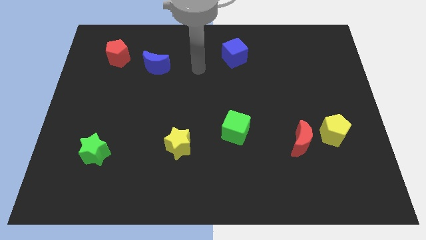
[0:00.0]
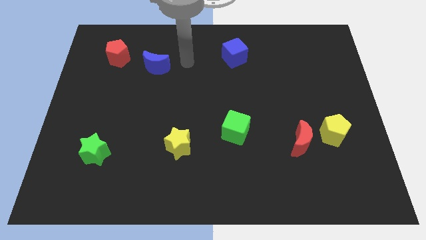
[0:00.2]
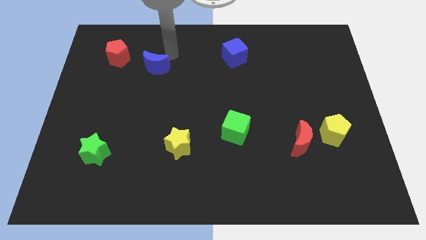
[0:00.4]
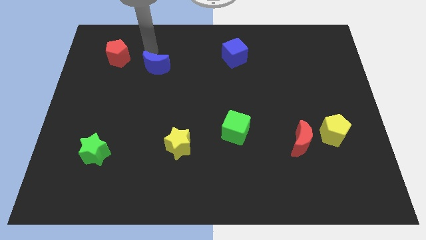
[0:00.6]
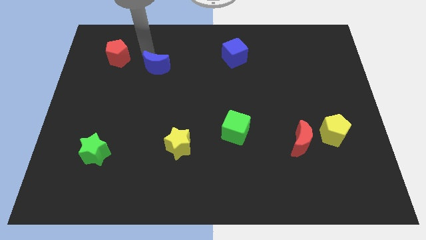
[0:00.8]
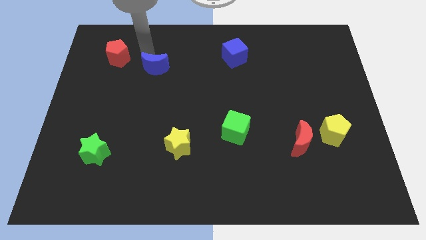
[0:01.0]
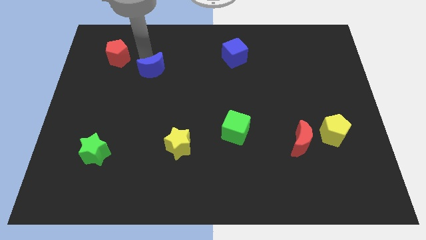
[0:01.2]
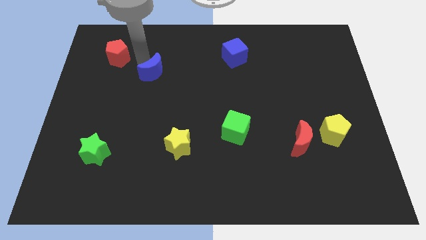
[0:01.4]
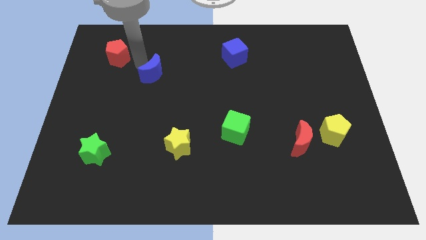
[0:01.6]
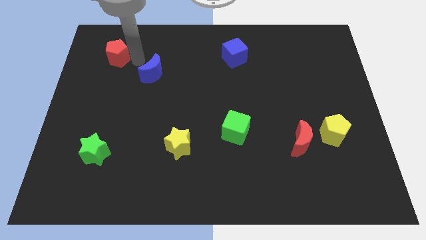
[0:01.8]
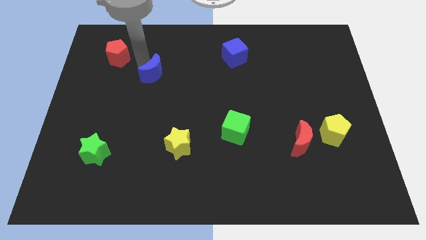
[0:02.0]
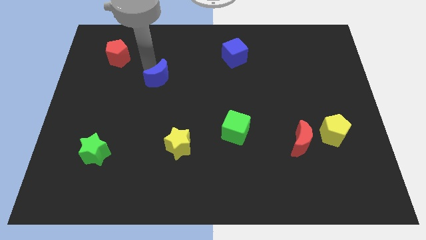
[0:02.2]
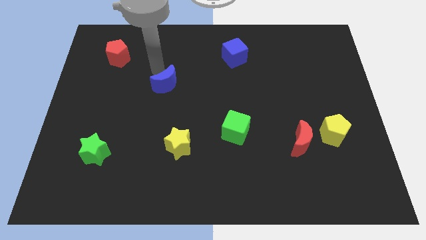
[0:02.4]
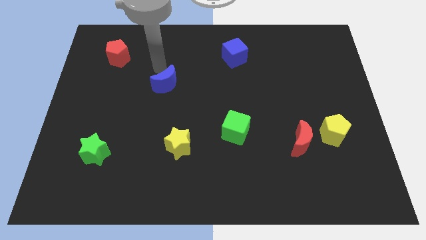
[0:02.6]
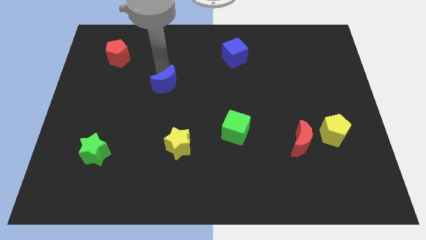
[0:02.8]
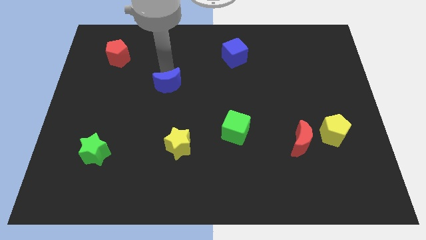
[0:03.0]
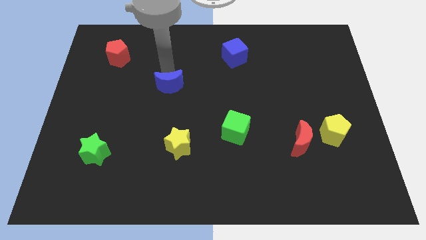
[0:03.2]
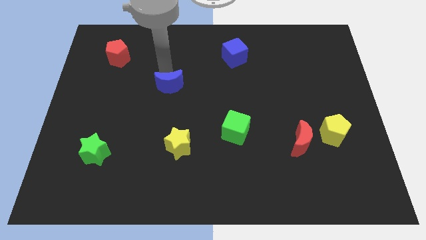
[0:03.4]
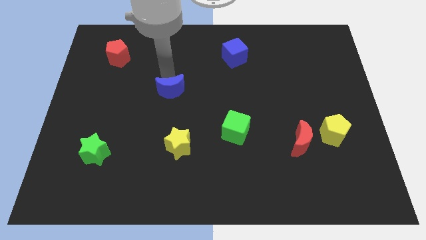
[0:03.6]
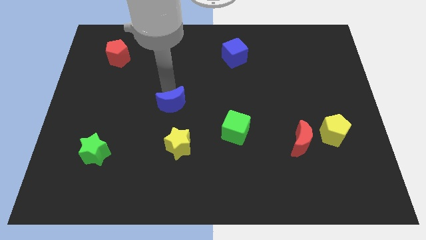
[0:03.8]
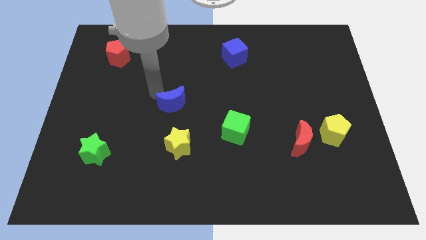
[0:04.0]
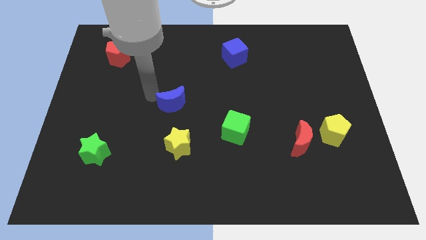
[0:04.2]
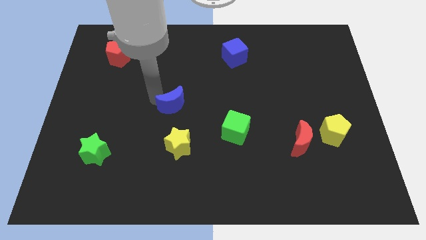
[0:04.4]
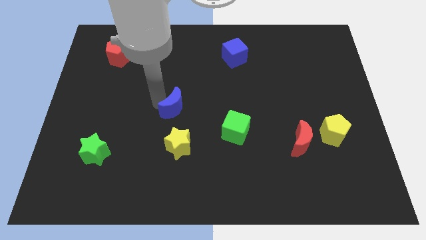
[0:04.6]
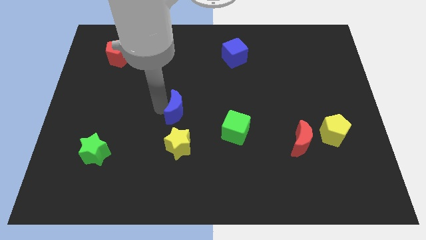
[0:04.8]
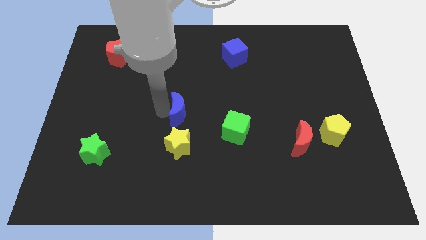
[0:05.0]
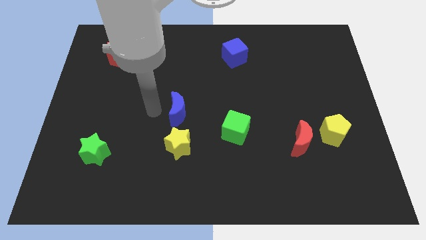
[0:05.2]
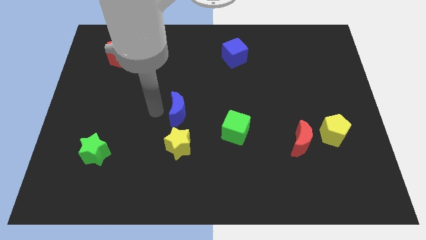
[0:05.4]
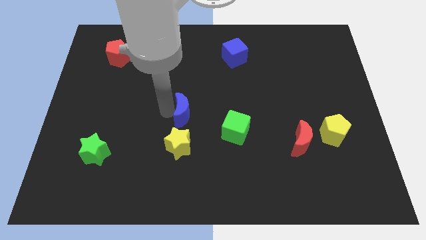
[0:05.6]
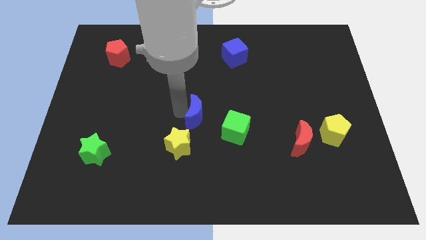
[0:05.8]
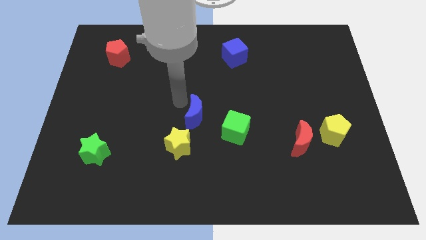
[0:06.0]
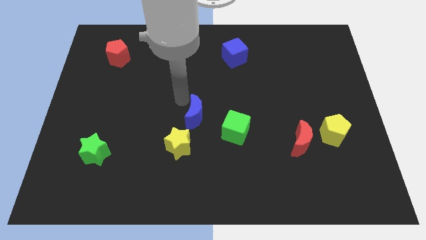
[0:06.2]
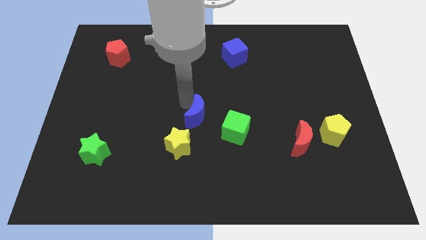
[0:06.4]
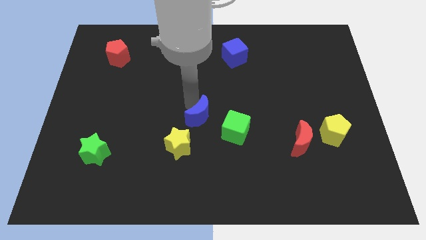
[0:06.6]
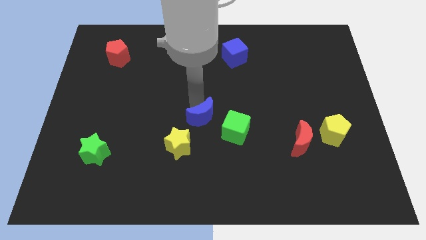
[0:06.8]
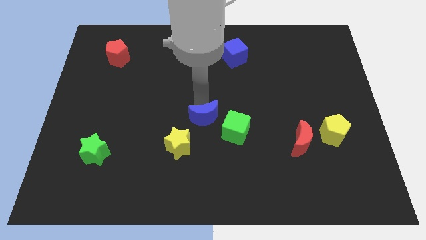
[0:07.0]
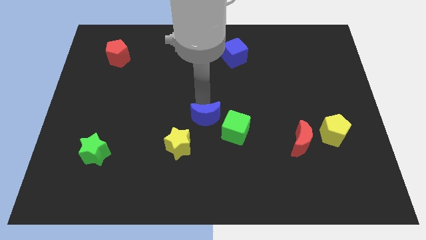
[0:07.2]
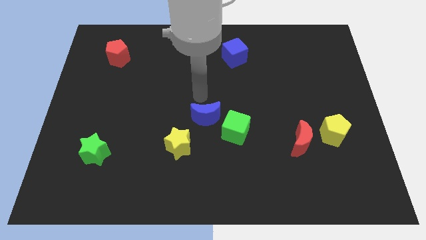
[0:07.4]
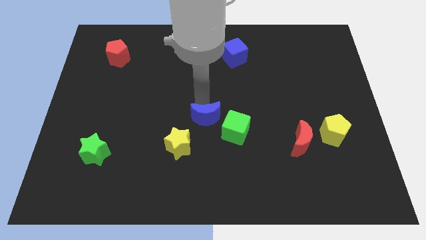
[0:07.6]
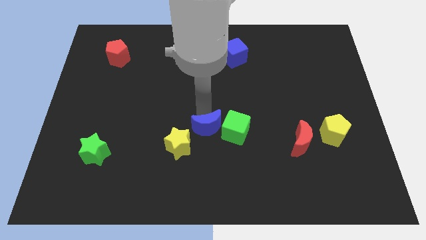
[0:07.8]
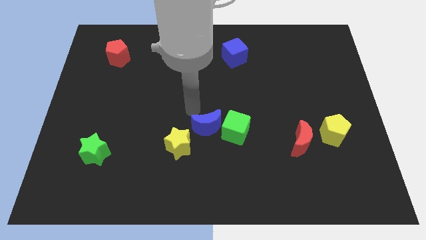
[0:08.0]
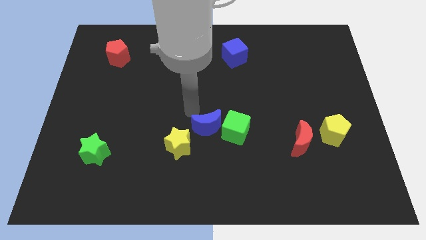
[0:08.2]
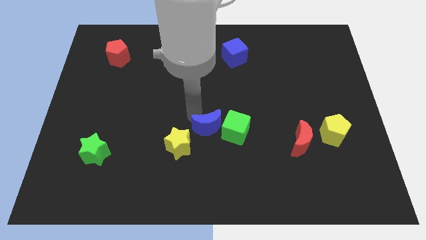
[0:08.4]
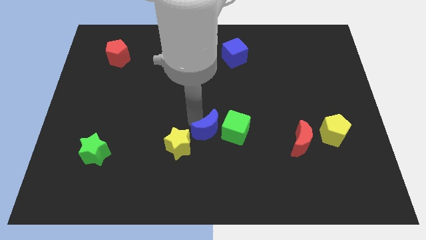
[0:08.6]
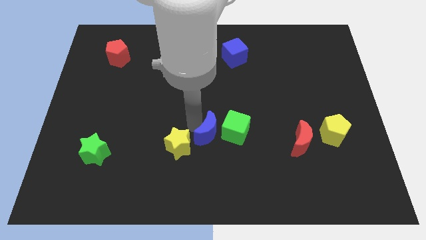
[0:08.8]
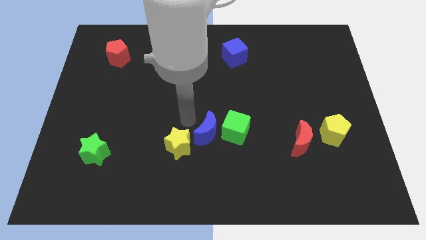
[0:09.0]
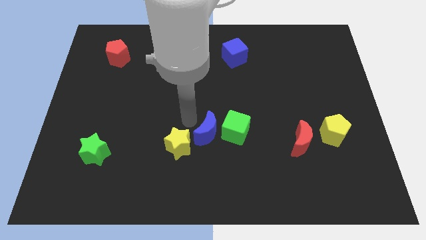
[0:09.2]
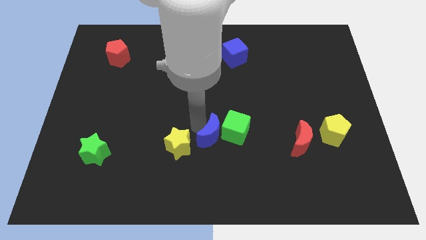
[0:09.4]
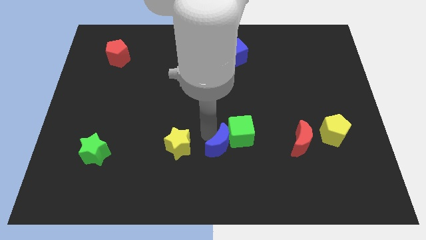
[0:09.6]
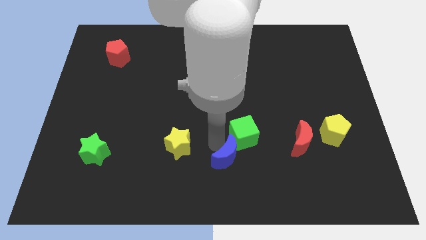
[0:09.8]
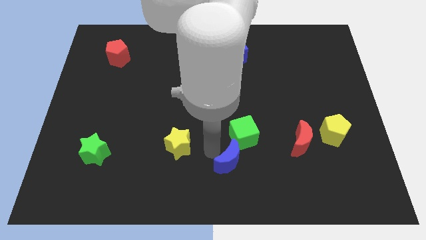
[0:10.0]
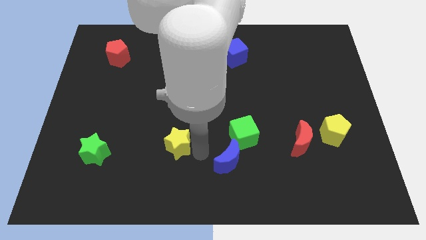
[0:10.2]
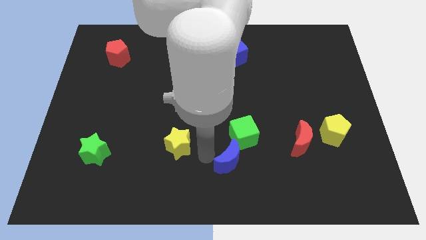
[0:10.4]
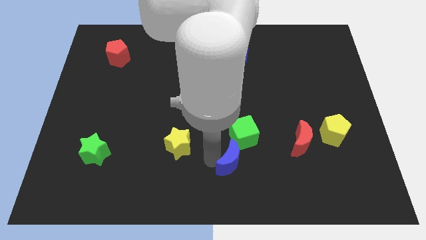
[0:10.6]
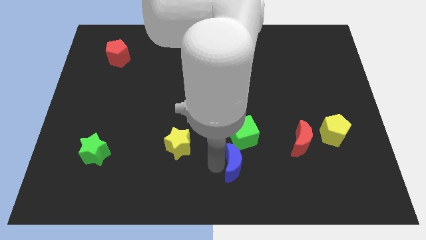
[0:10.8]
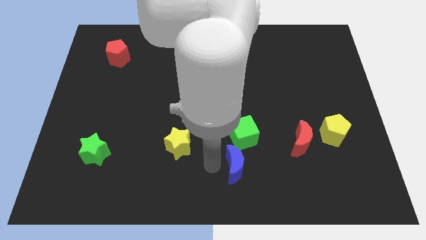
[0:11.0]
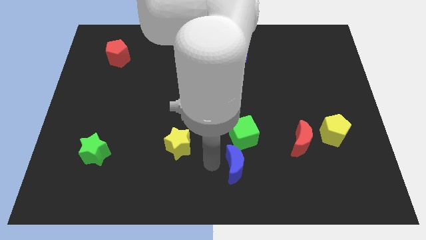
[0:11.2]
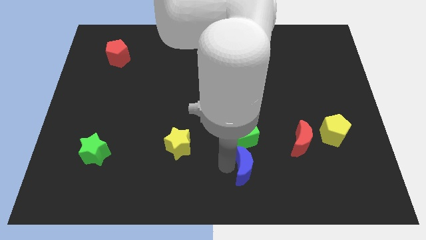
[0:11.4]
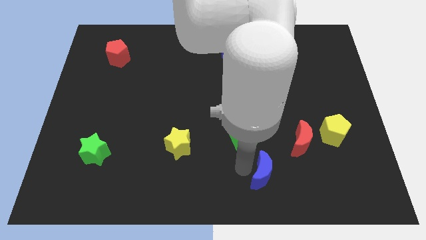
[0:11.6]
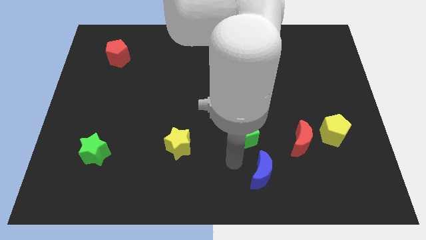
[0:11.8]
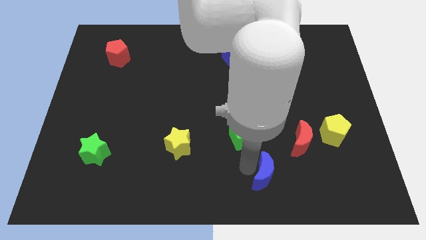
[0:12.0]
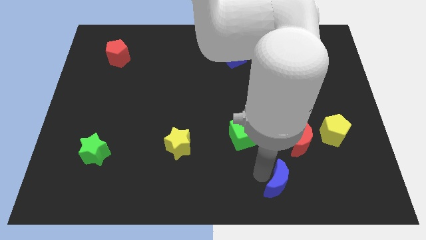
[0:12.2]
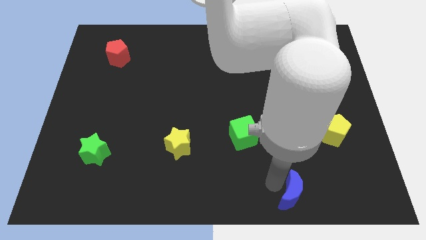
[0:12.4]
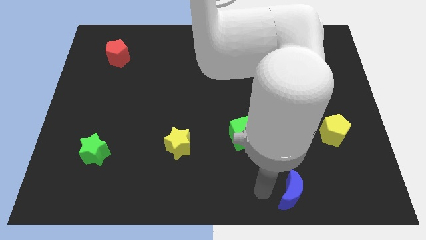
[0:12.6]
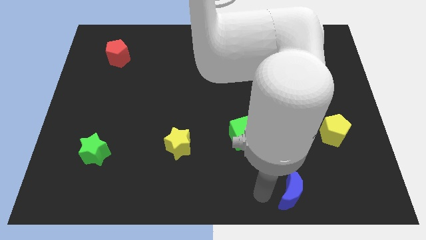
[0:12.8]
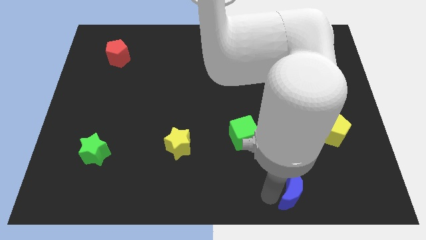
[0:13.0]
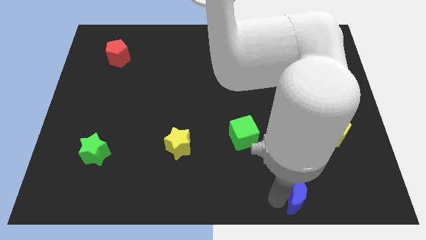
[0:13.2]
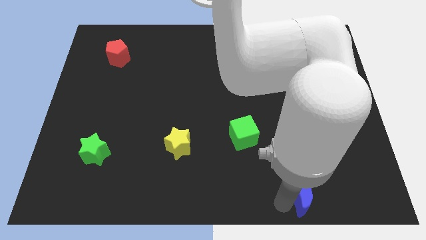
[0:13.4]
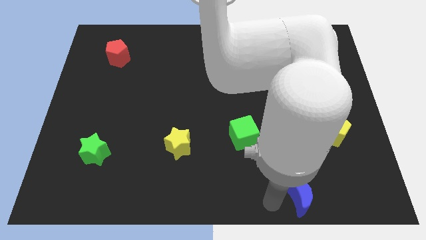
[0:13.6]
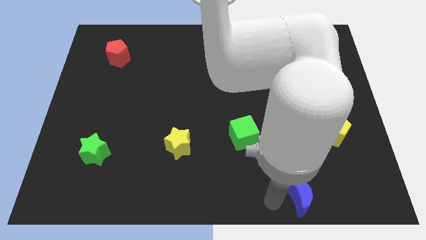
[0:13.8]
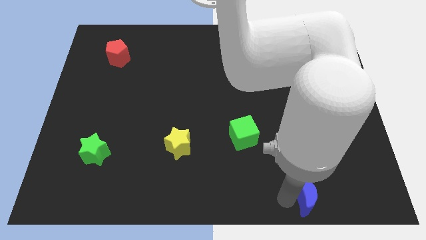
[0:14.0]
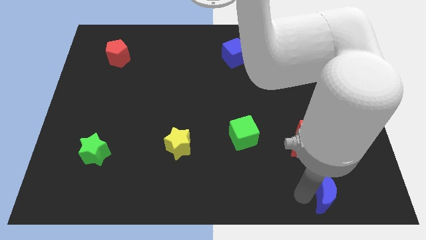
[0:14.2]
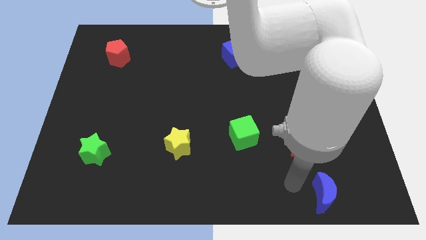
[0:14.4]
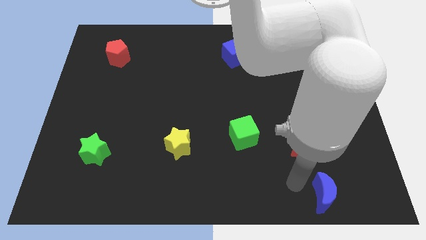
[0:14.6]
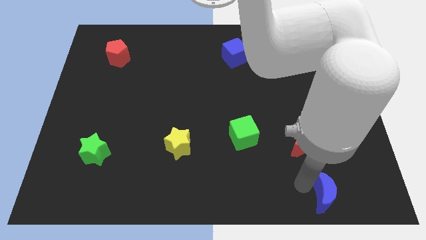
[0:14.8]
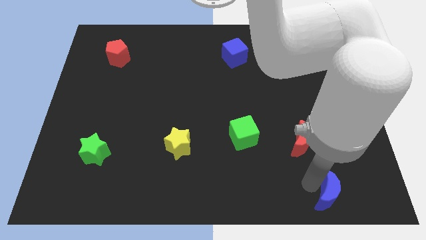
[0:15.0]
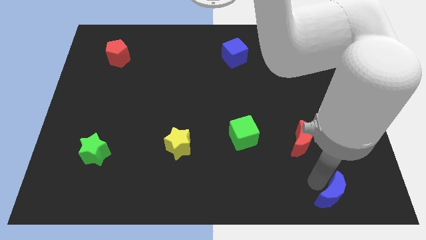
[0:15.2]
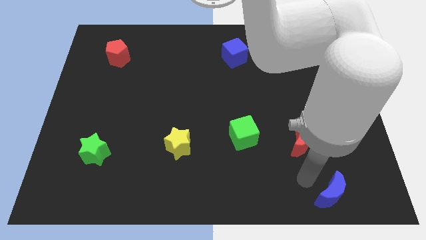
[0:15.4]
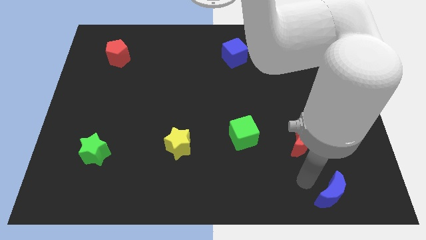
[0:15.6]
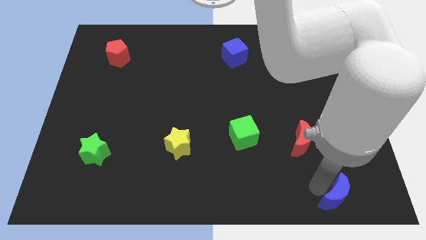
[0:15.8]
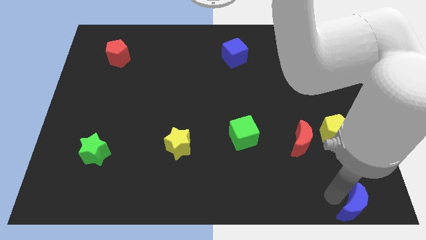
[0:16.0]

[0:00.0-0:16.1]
move the blue moon to the lower right corner
